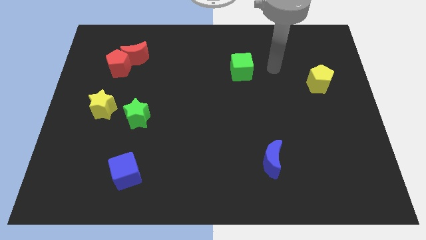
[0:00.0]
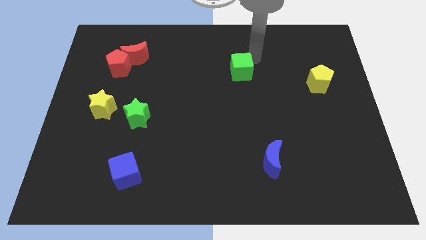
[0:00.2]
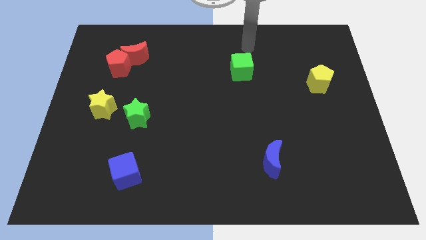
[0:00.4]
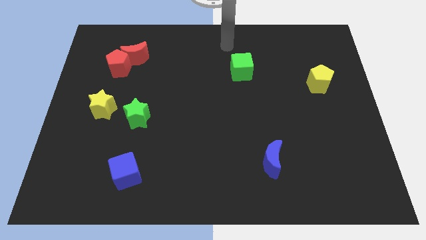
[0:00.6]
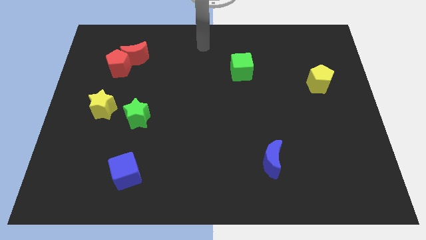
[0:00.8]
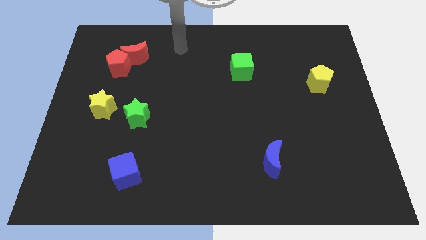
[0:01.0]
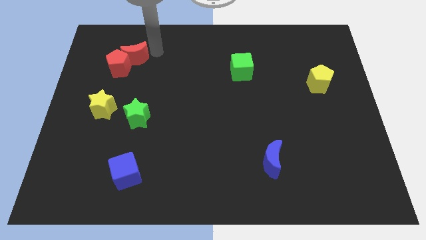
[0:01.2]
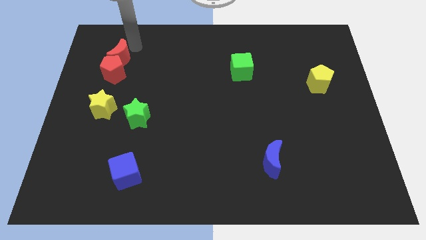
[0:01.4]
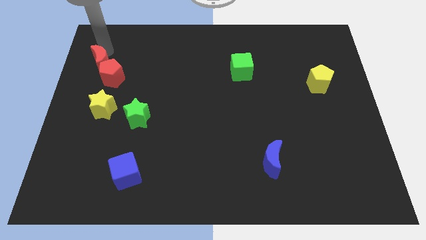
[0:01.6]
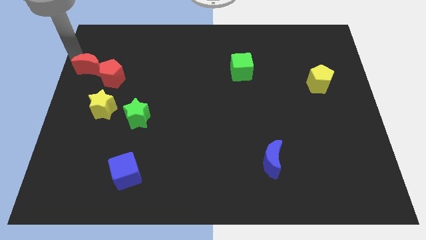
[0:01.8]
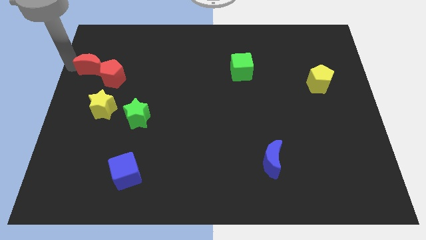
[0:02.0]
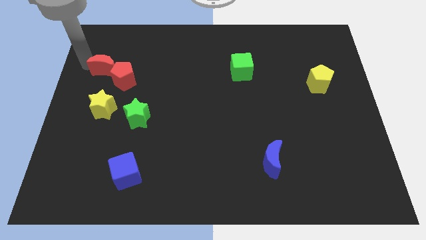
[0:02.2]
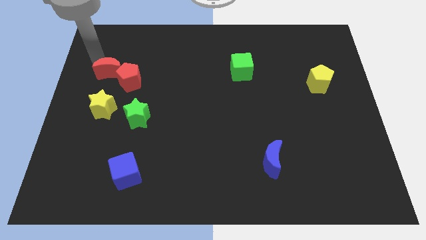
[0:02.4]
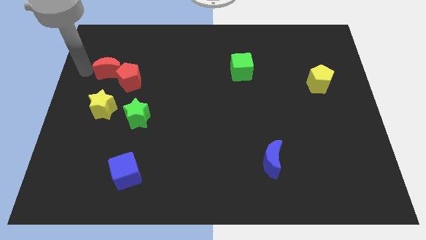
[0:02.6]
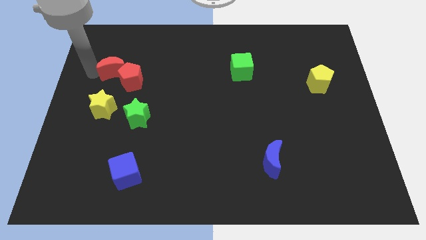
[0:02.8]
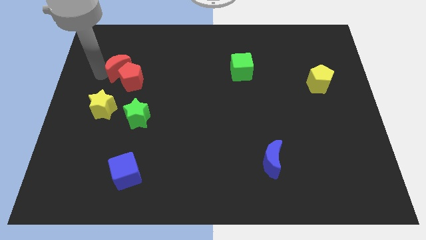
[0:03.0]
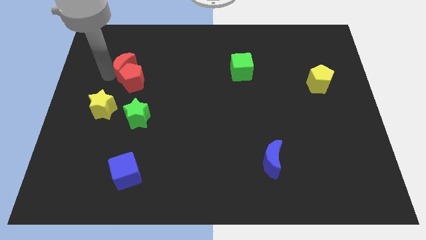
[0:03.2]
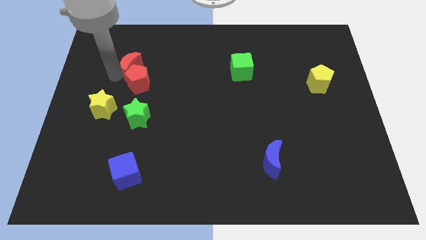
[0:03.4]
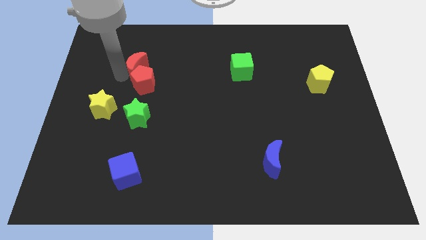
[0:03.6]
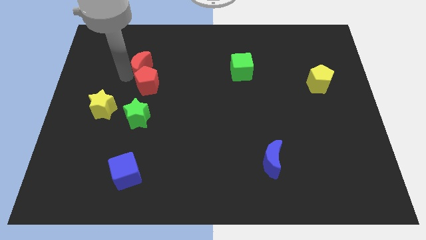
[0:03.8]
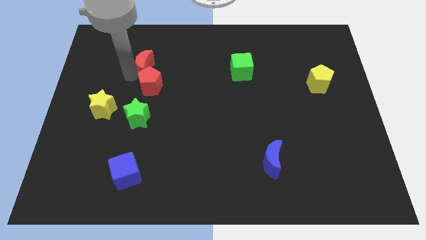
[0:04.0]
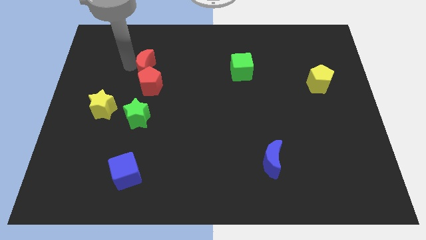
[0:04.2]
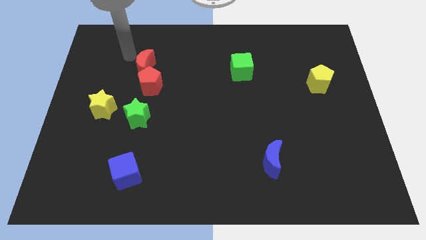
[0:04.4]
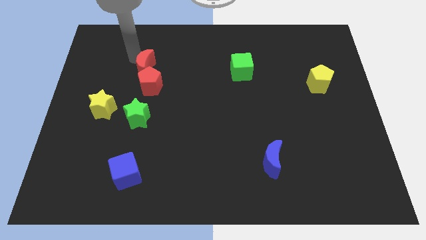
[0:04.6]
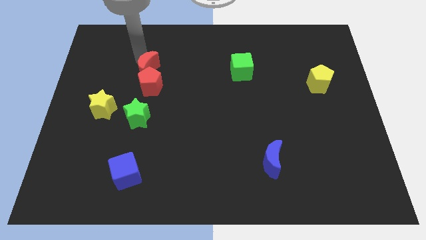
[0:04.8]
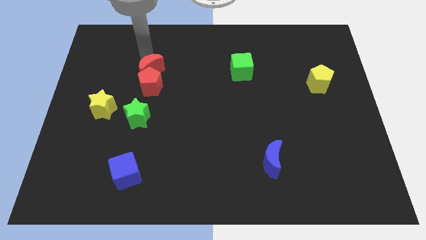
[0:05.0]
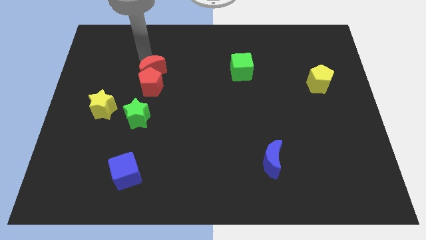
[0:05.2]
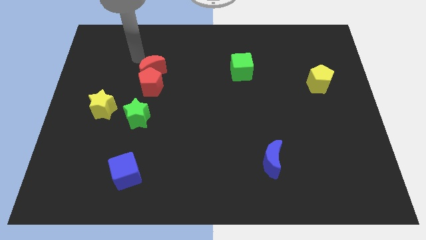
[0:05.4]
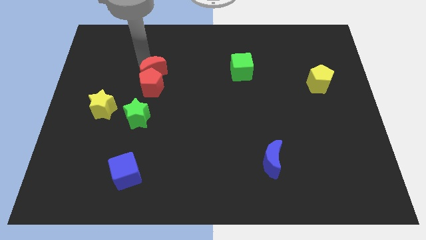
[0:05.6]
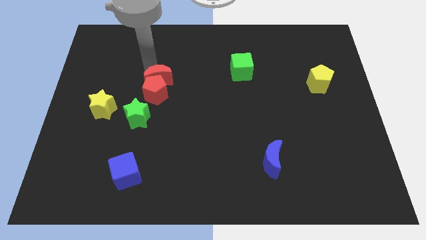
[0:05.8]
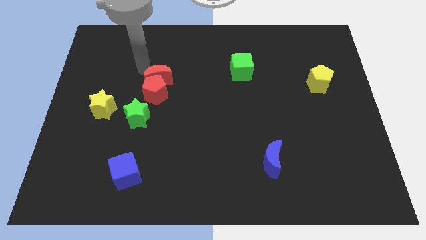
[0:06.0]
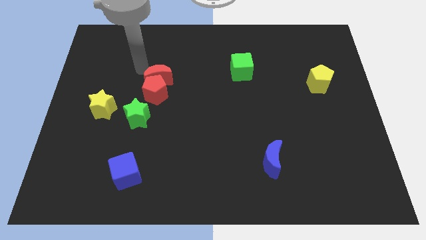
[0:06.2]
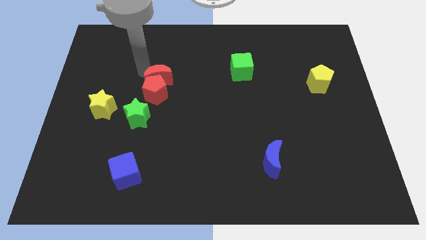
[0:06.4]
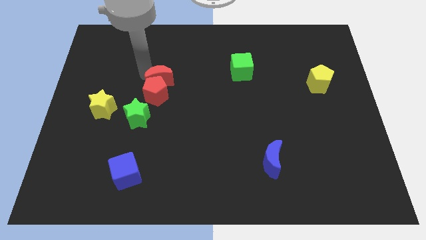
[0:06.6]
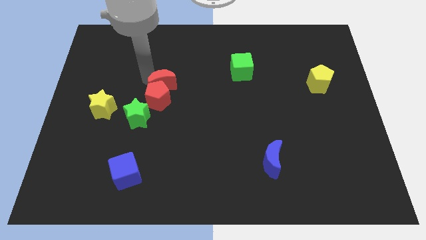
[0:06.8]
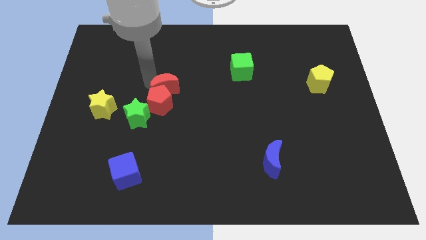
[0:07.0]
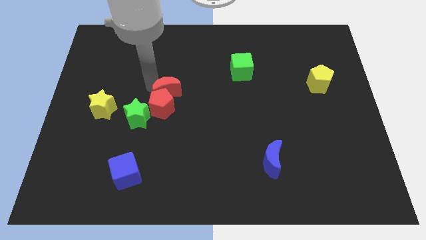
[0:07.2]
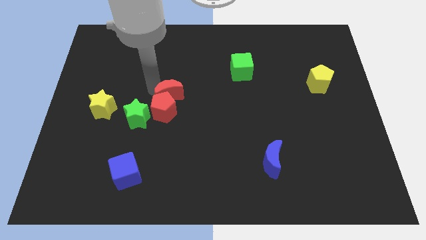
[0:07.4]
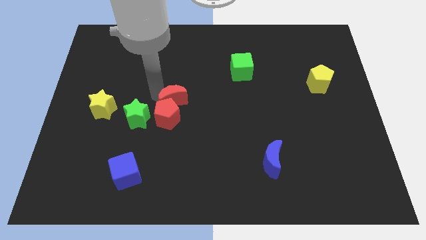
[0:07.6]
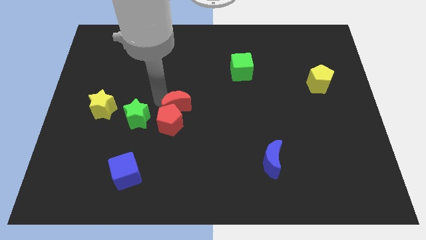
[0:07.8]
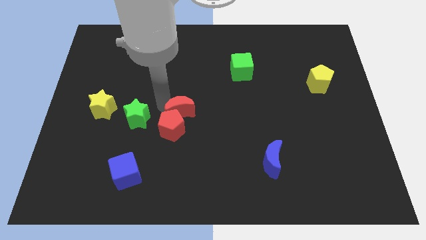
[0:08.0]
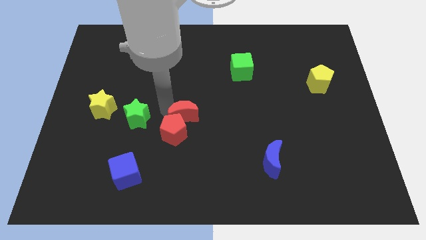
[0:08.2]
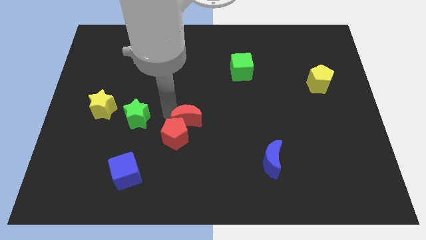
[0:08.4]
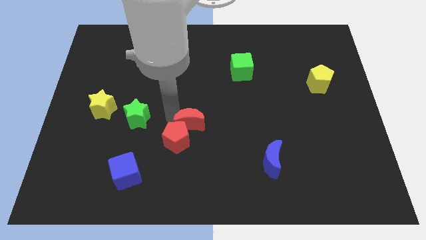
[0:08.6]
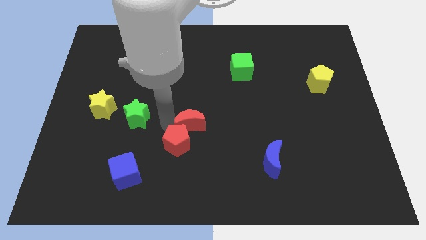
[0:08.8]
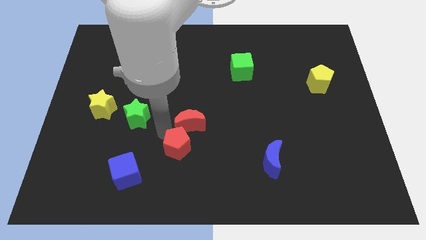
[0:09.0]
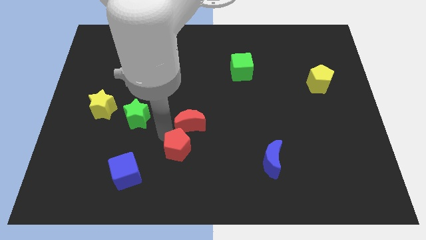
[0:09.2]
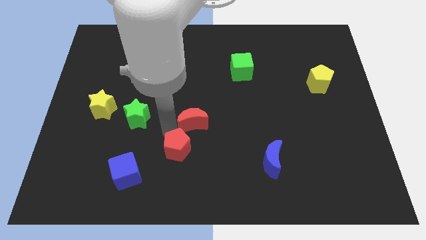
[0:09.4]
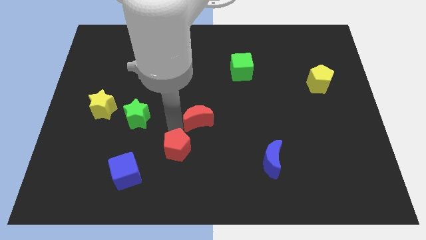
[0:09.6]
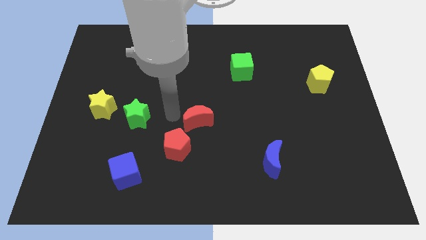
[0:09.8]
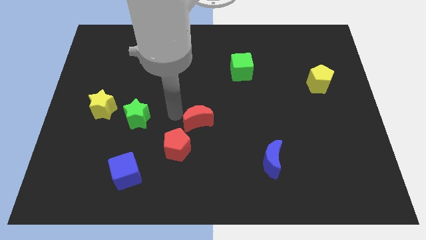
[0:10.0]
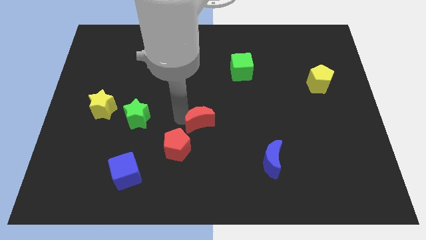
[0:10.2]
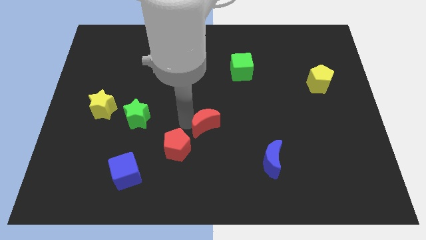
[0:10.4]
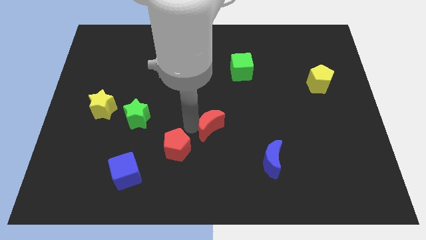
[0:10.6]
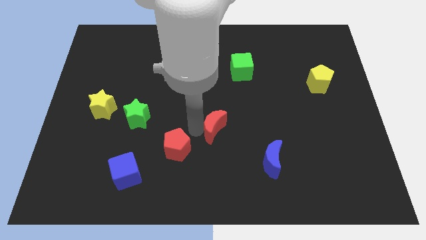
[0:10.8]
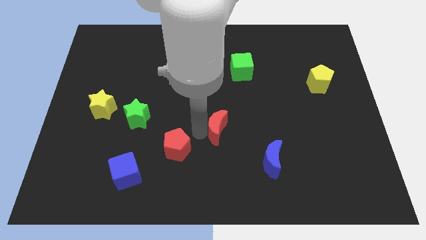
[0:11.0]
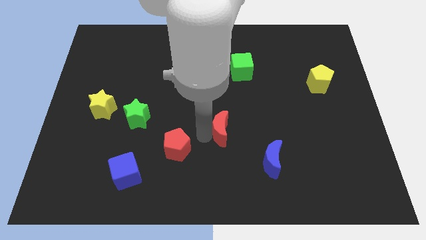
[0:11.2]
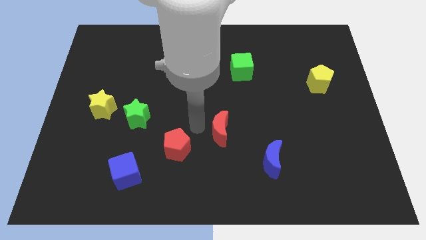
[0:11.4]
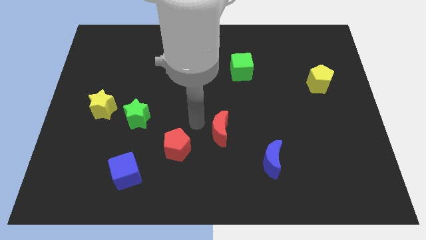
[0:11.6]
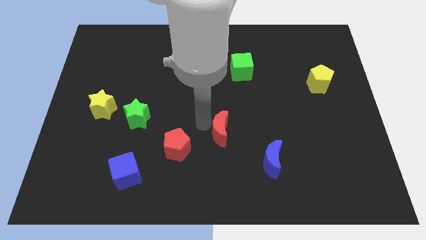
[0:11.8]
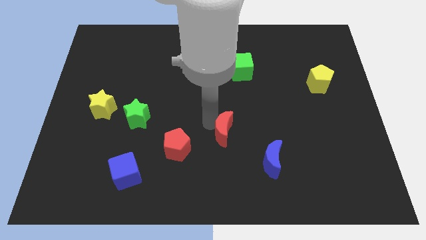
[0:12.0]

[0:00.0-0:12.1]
put the red moon to the top left of the blue moon
